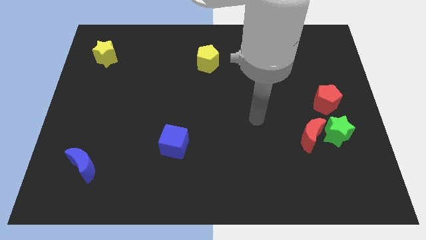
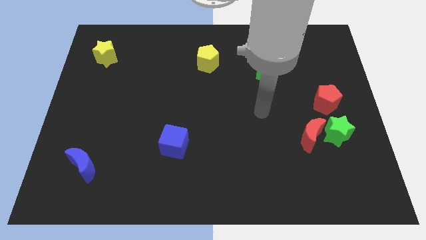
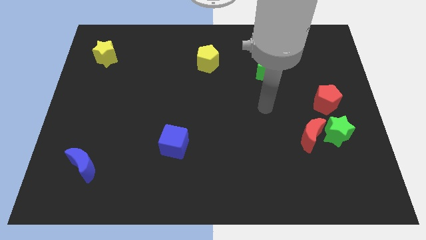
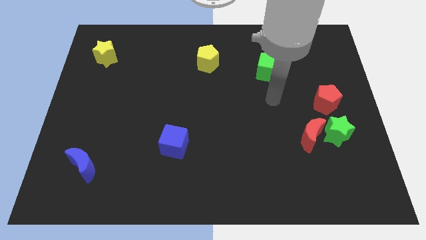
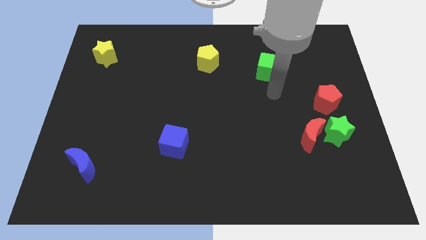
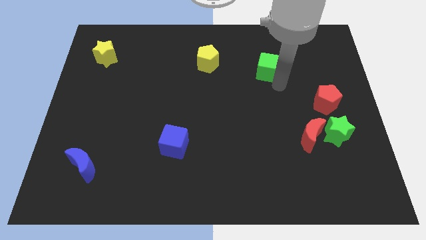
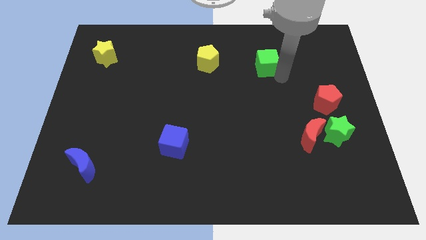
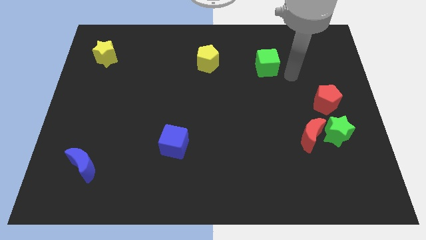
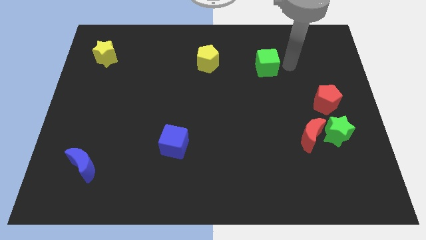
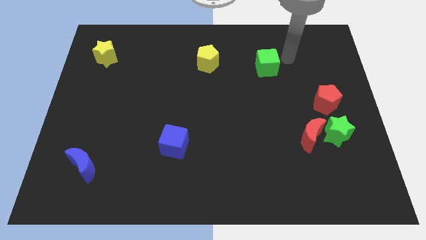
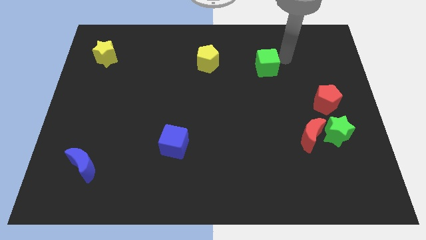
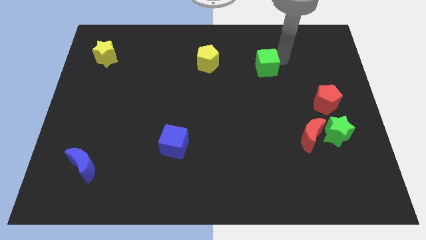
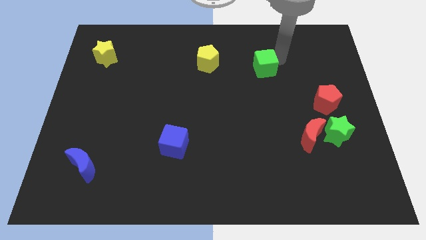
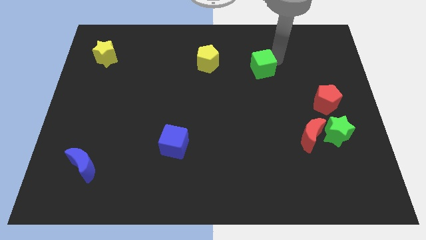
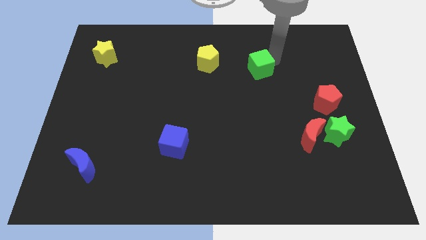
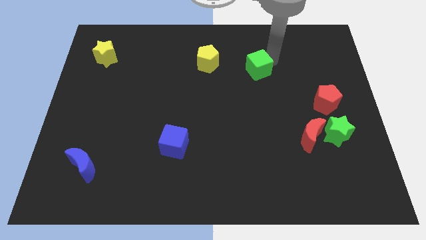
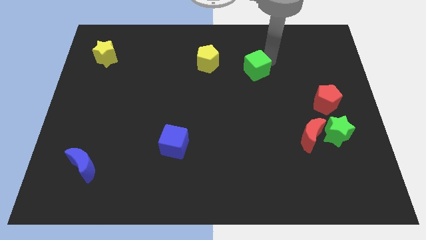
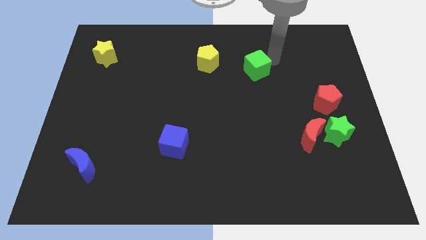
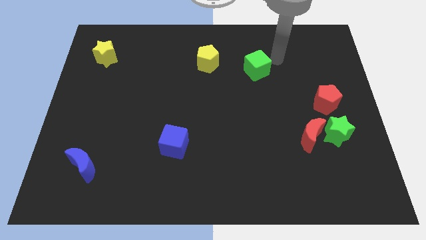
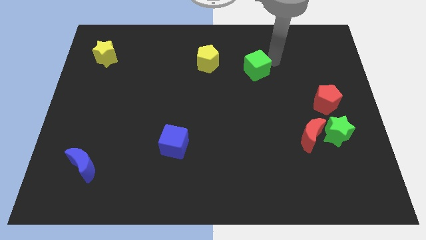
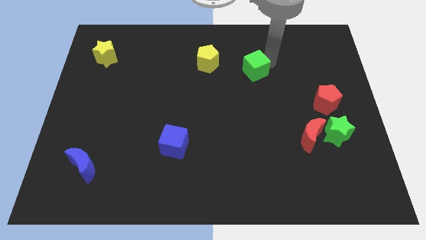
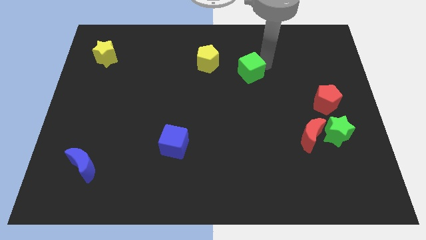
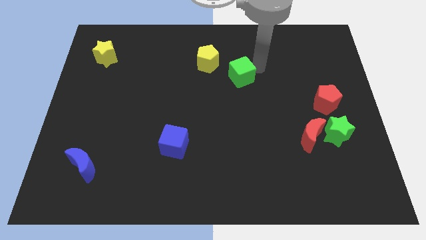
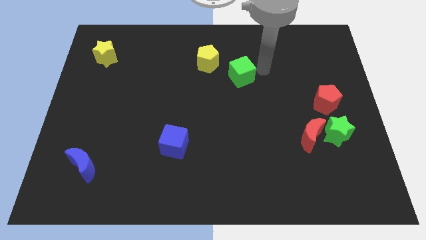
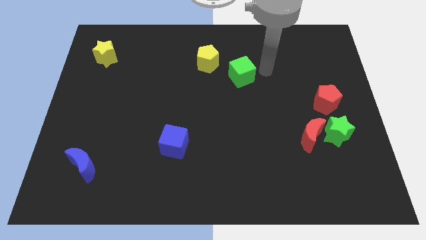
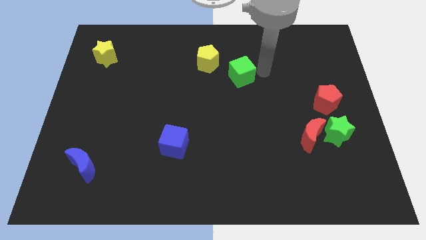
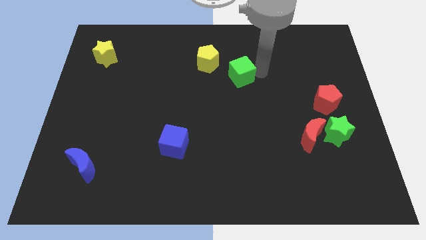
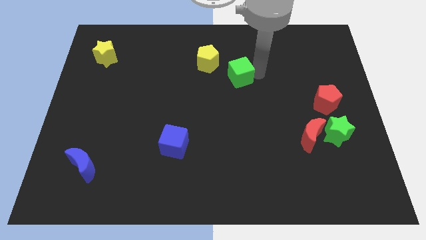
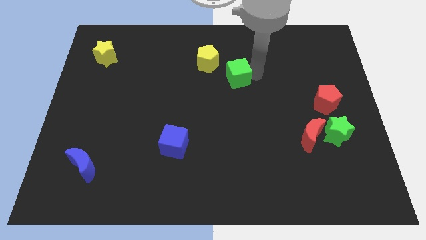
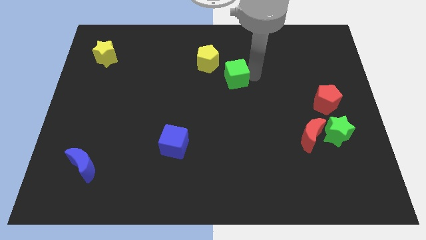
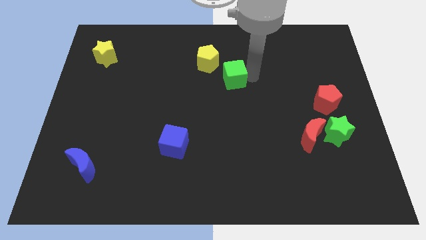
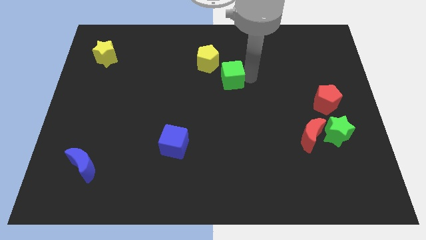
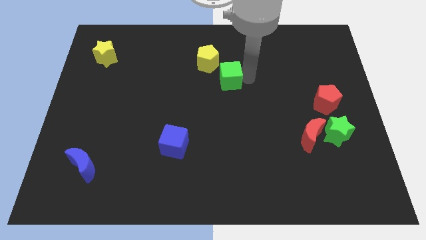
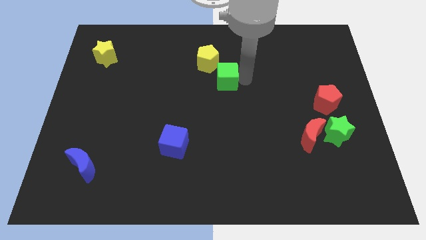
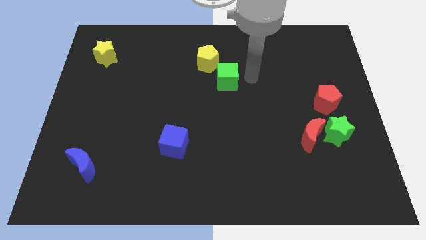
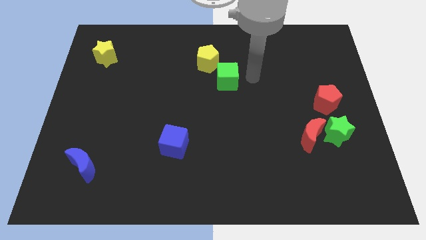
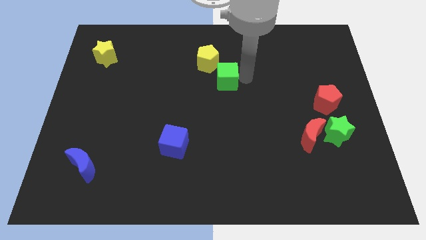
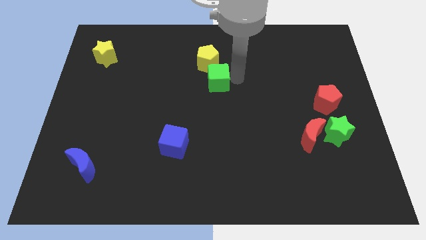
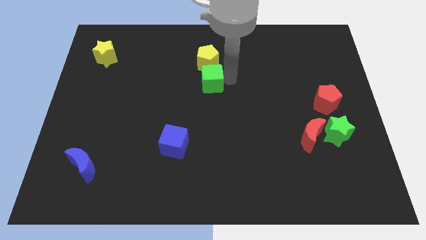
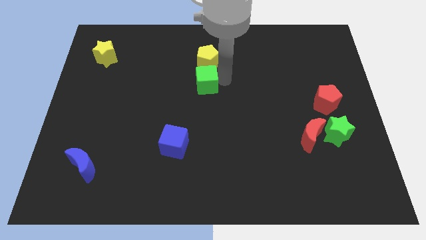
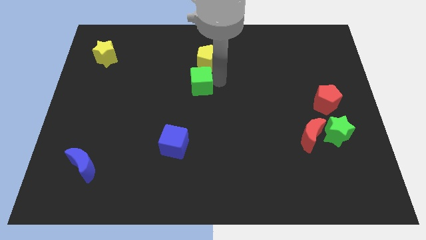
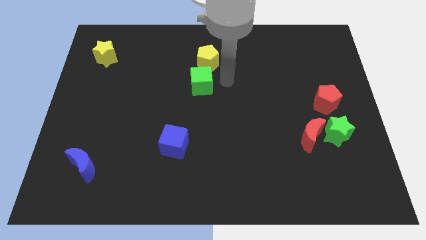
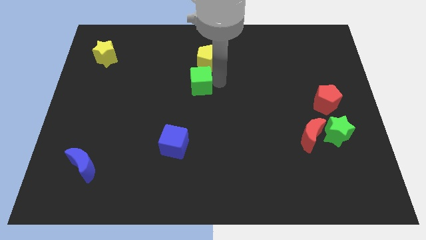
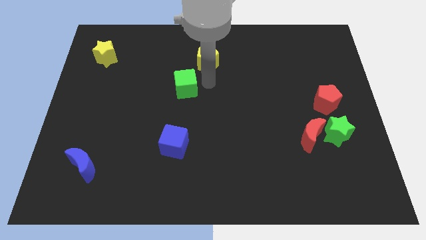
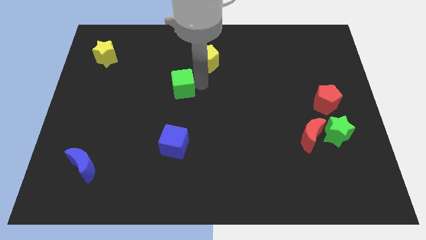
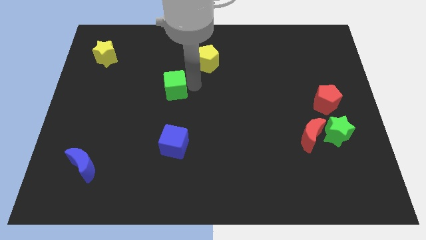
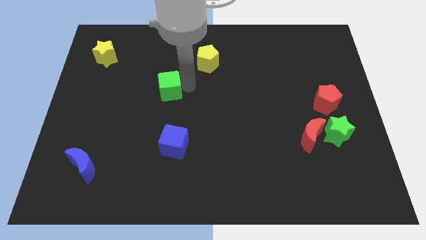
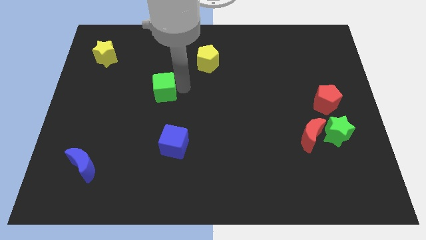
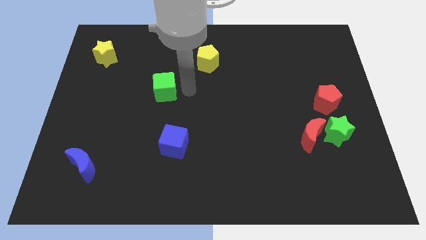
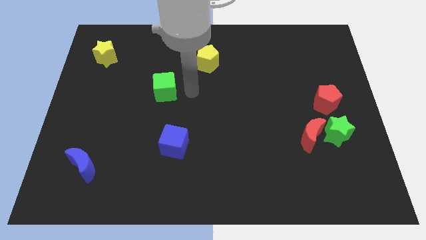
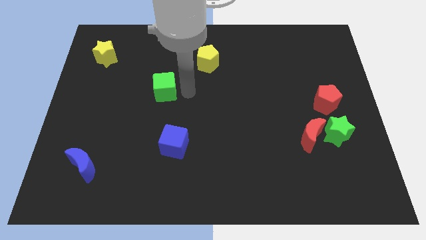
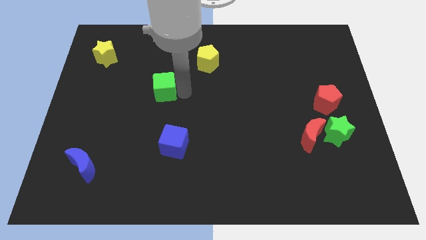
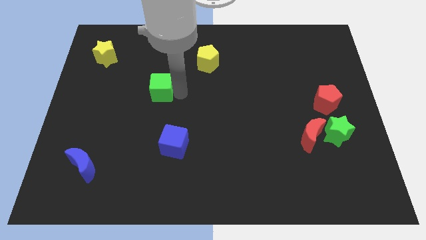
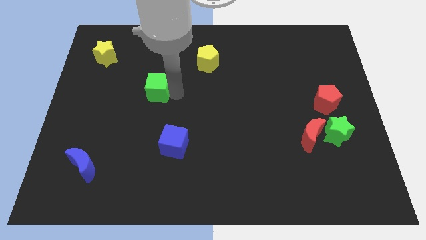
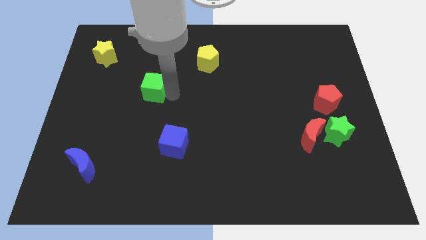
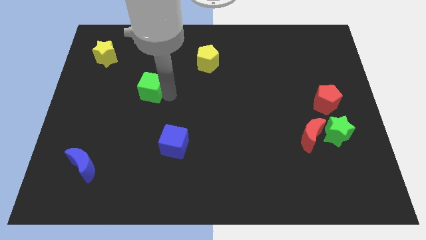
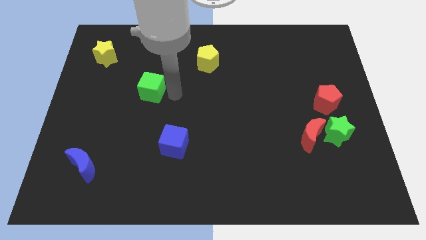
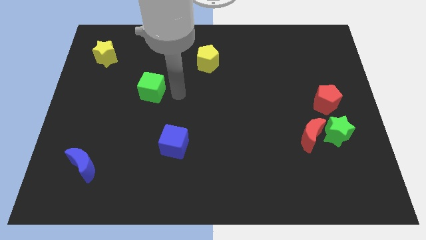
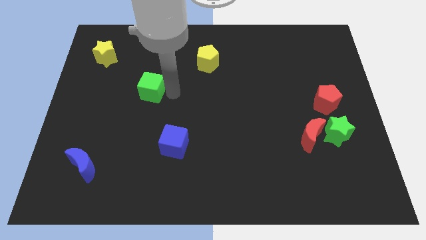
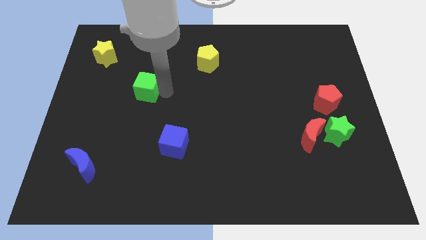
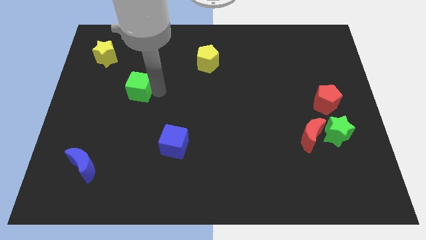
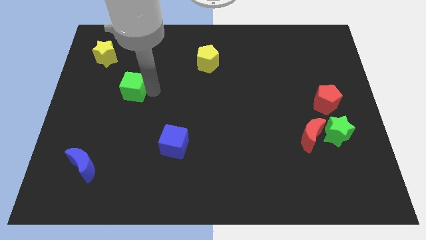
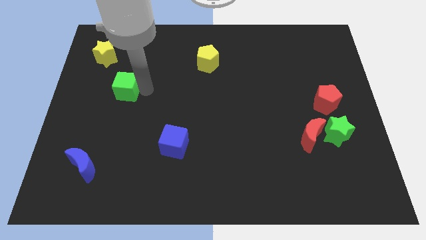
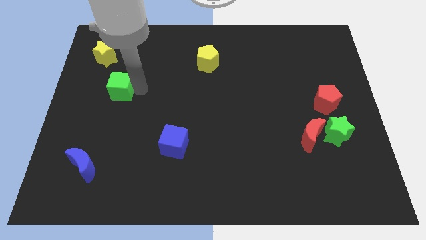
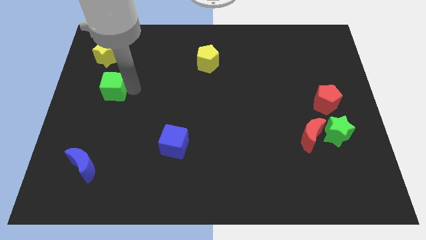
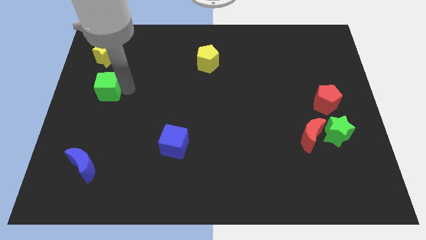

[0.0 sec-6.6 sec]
push the green cube to the left side of the board
